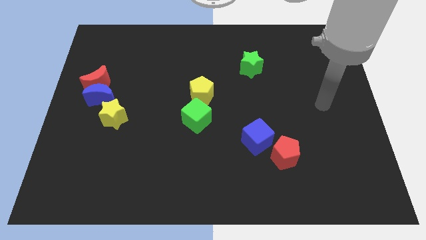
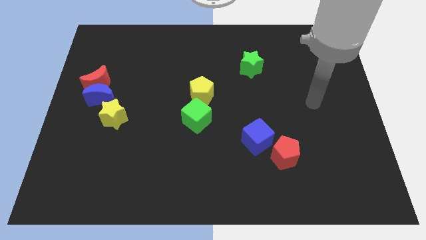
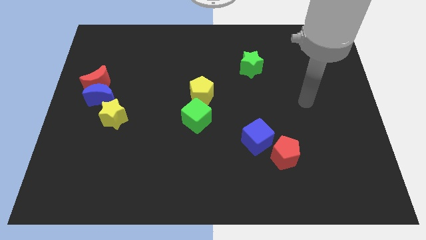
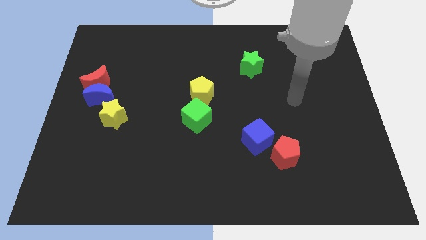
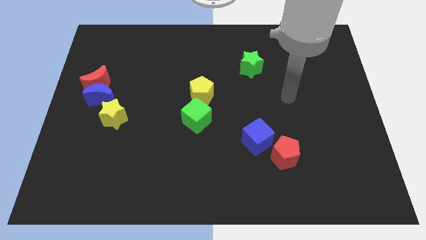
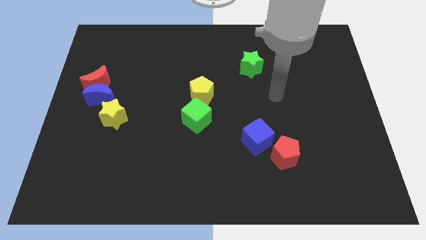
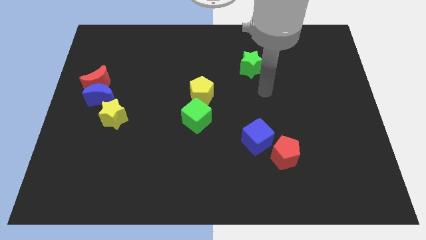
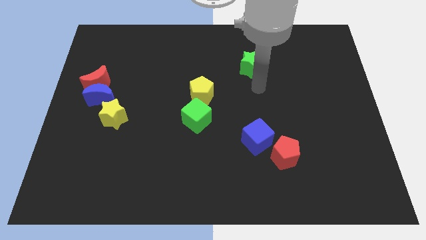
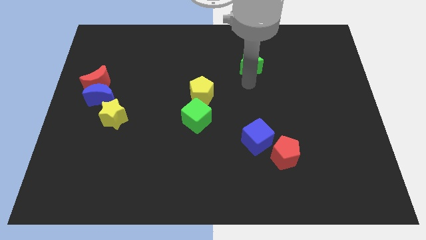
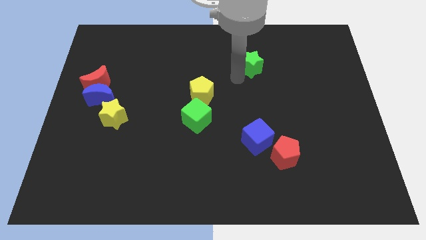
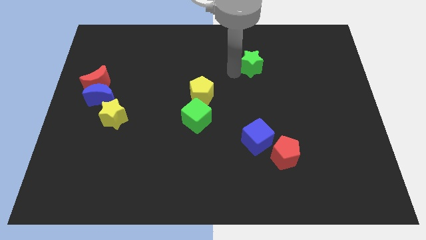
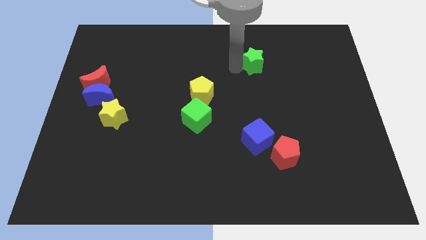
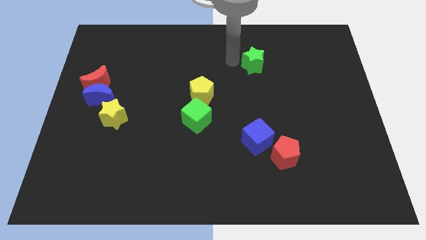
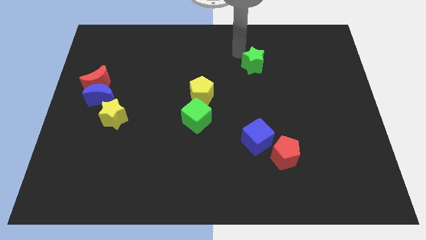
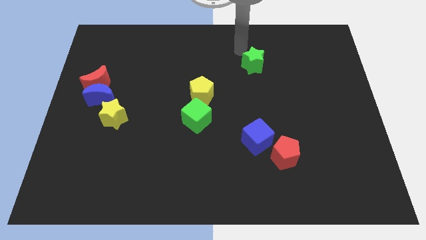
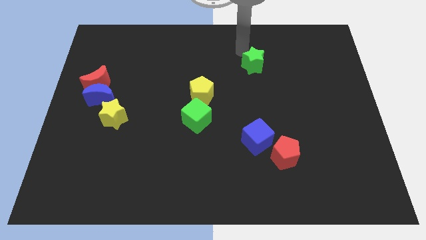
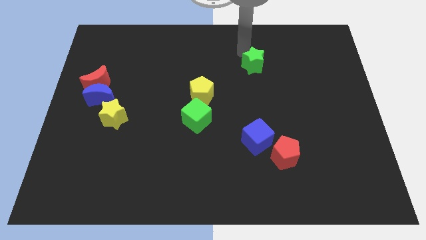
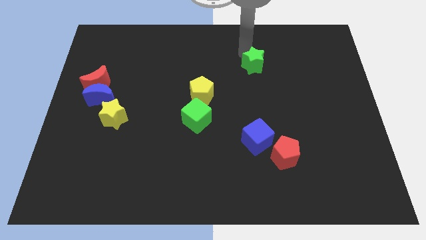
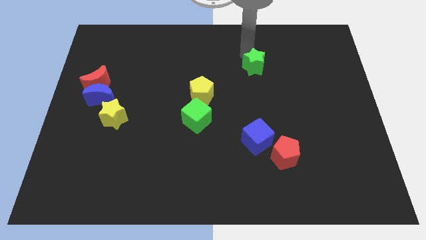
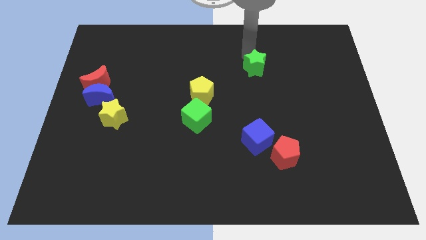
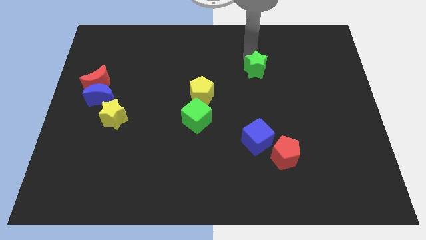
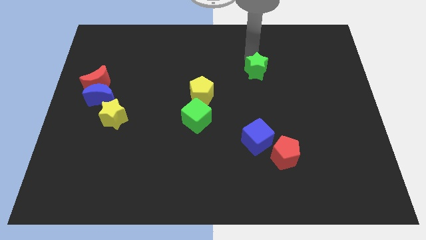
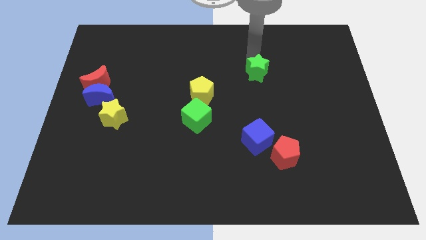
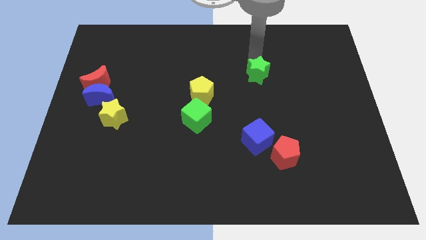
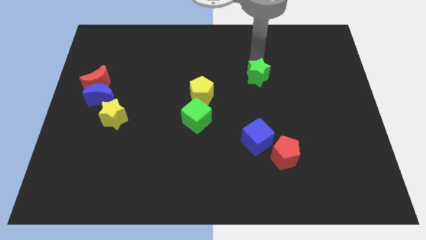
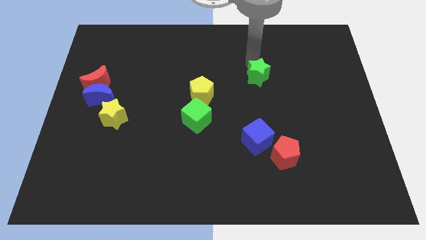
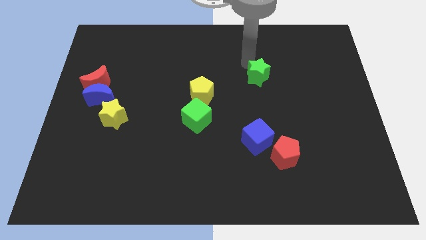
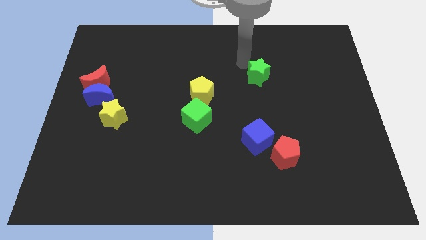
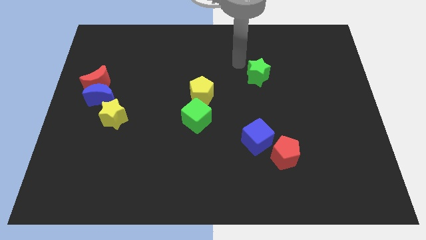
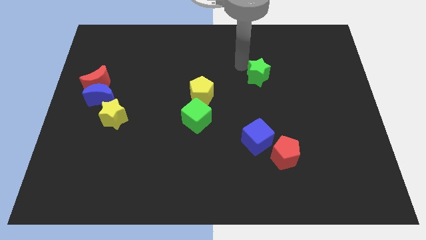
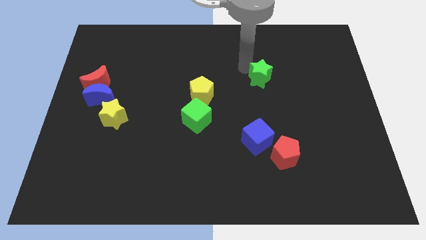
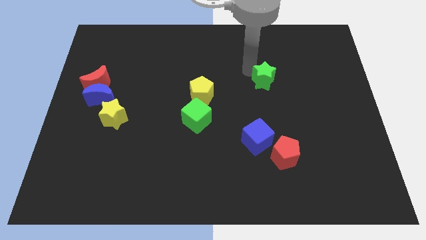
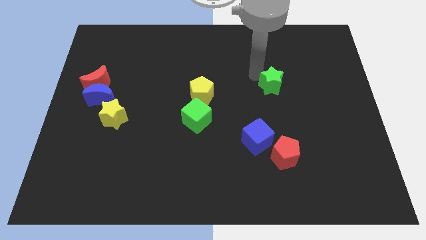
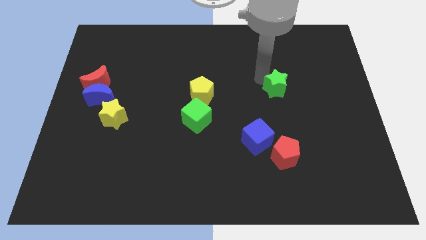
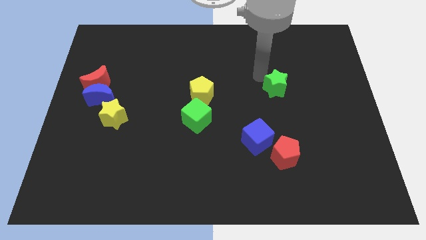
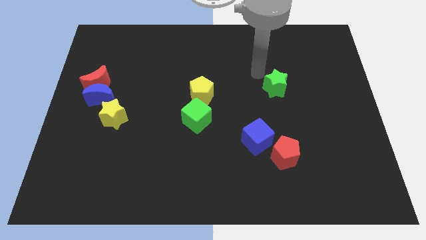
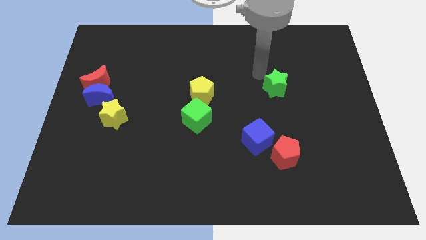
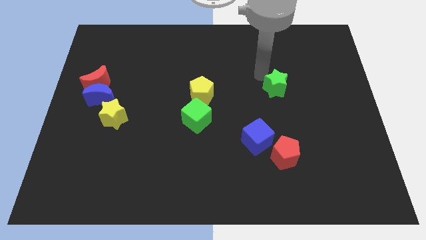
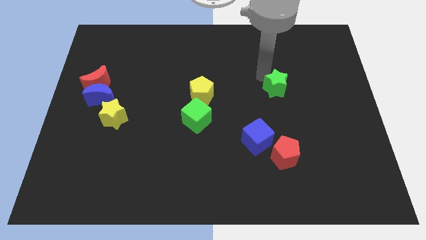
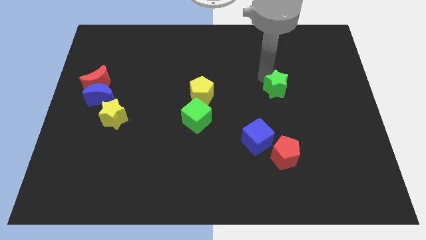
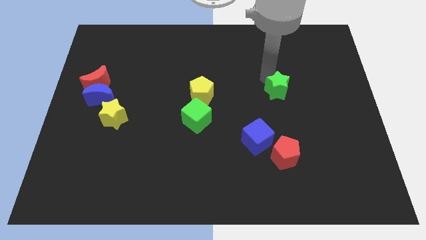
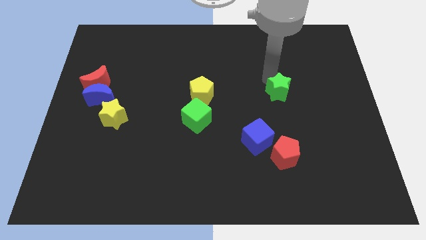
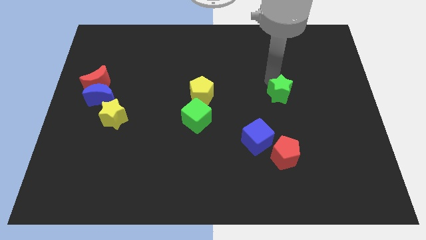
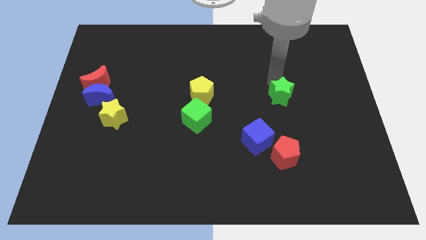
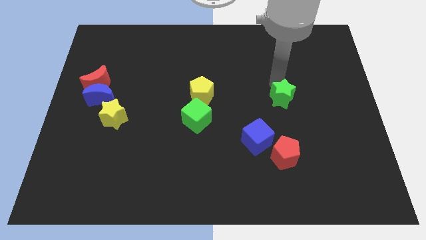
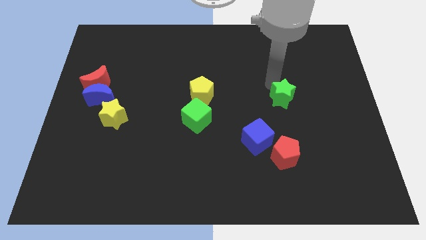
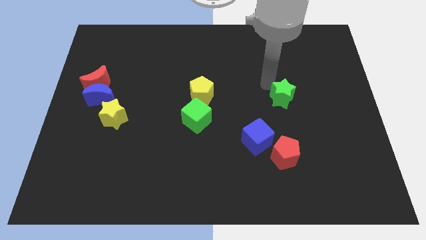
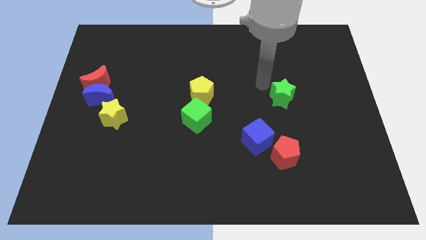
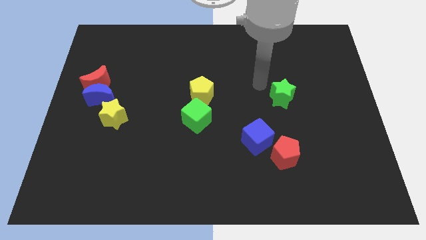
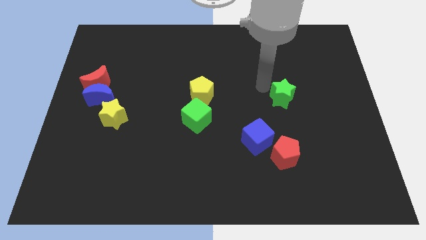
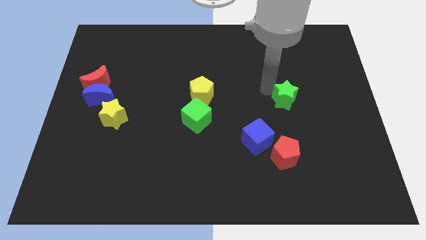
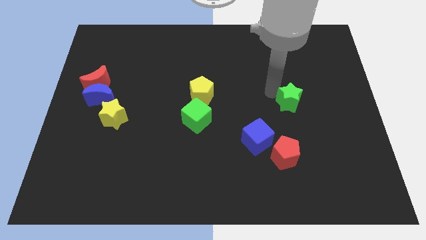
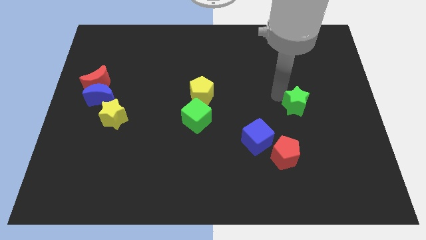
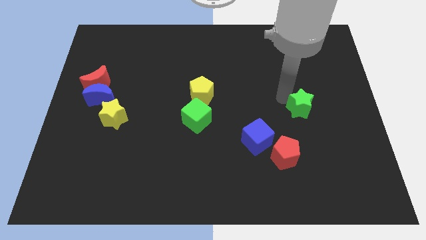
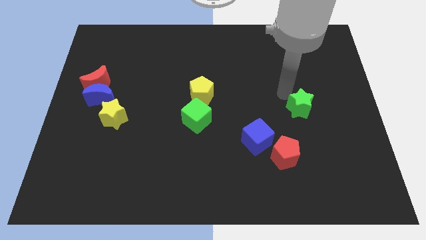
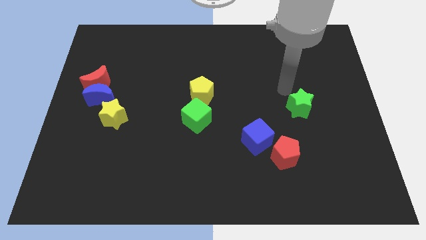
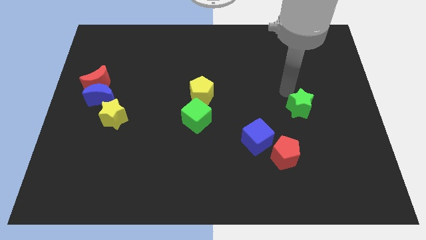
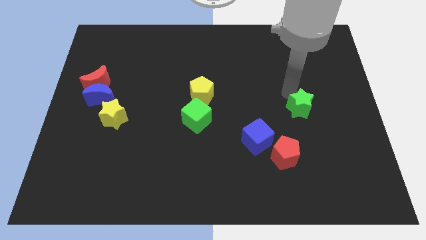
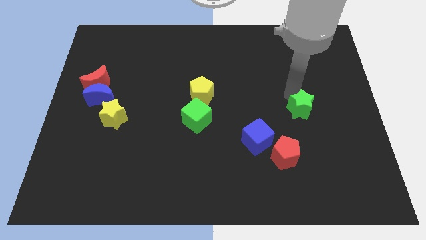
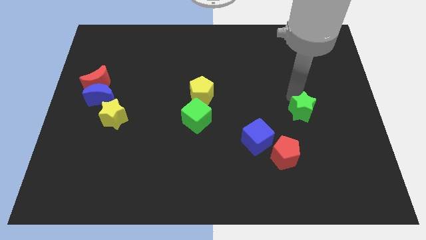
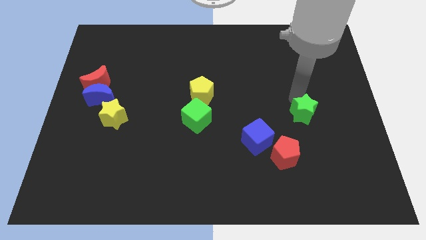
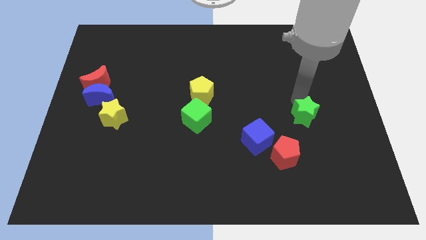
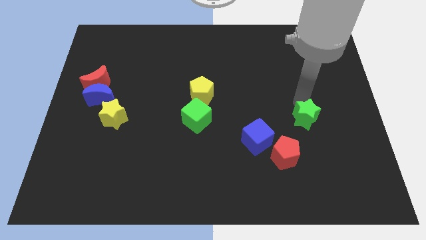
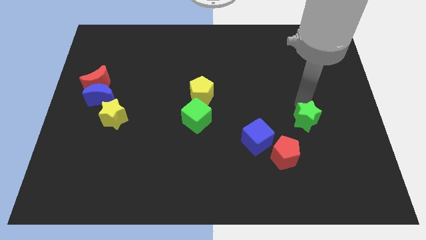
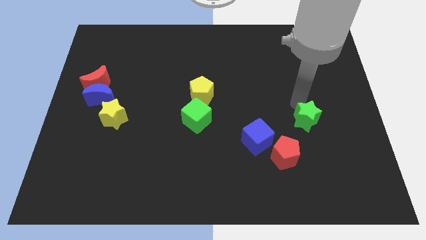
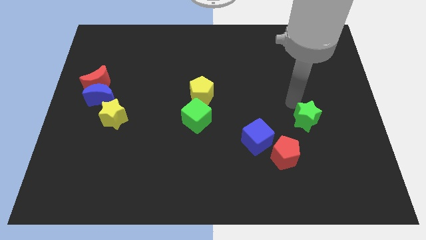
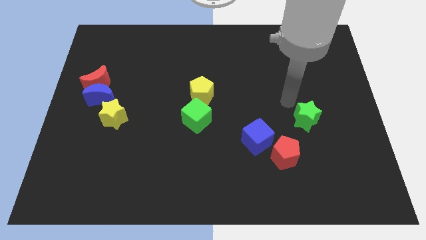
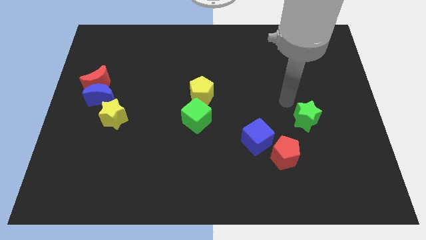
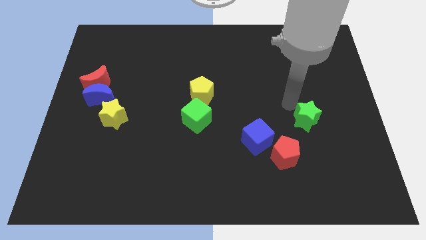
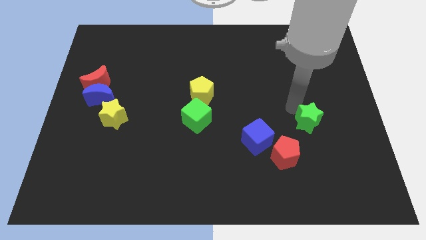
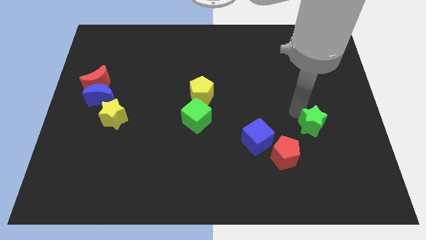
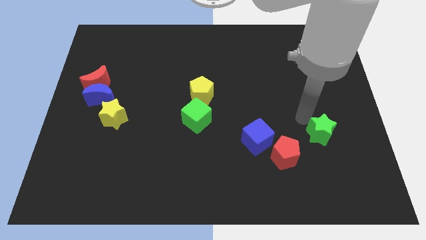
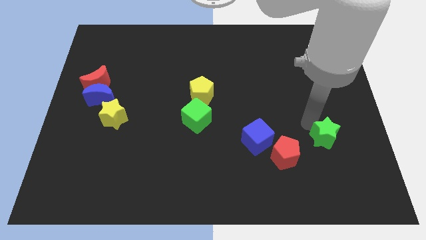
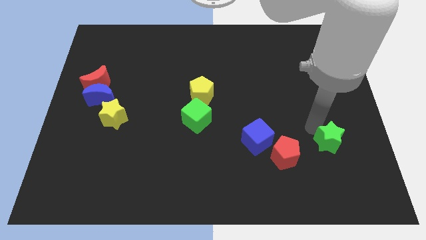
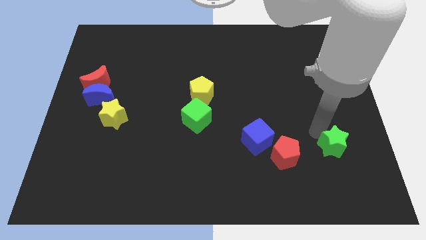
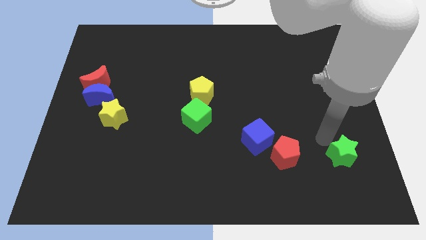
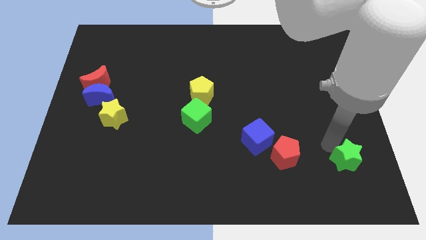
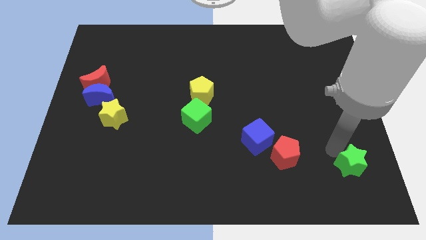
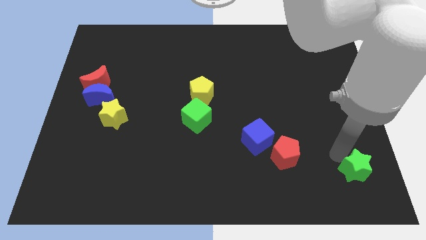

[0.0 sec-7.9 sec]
move the green star to the lower right corner
